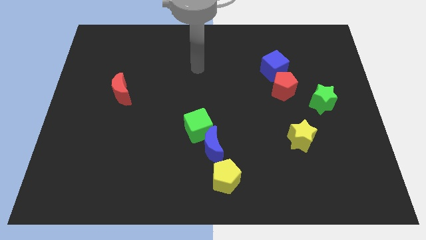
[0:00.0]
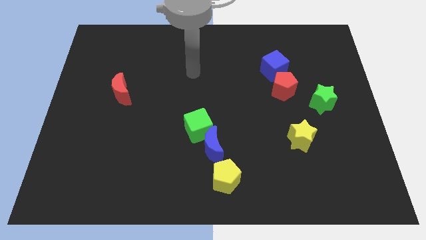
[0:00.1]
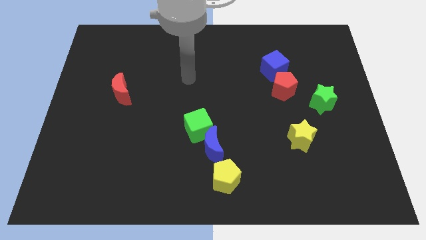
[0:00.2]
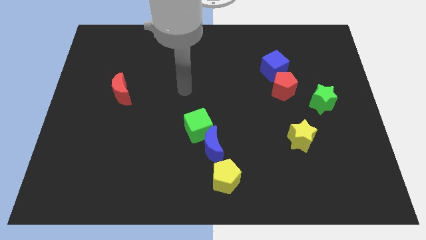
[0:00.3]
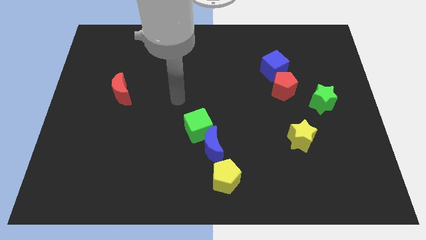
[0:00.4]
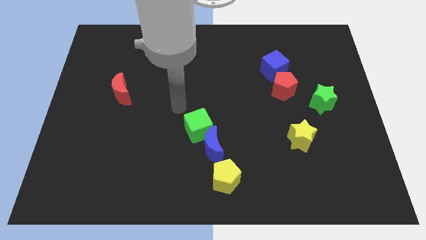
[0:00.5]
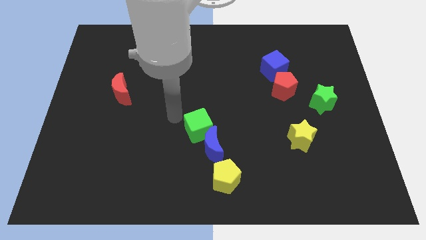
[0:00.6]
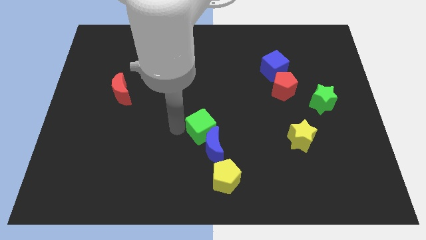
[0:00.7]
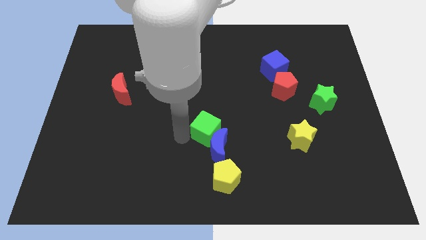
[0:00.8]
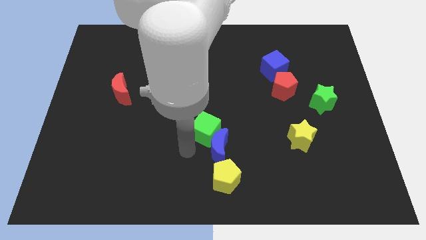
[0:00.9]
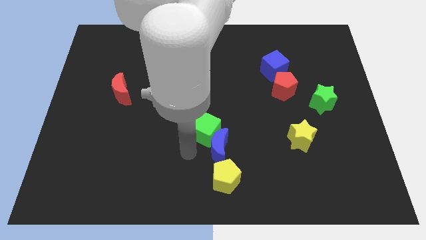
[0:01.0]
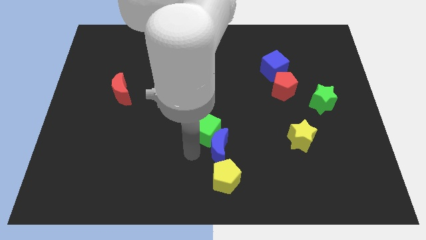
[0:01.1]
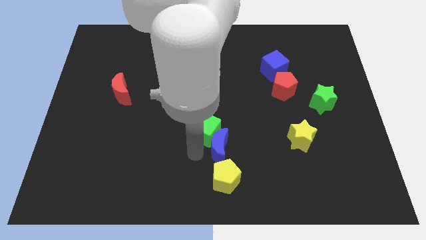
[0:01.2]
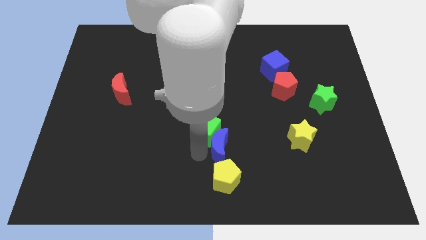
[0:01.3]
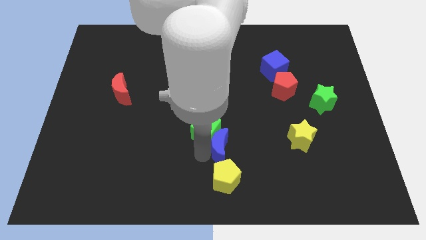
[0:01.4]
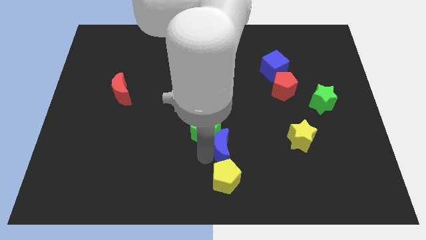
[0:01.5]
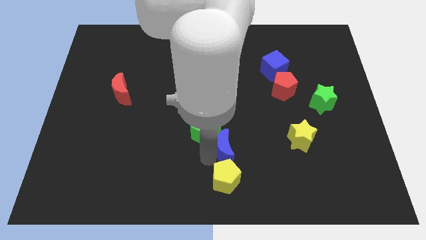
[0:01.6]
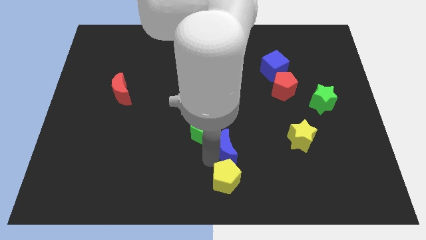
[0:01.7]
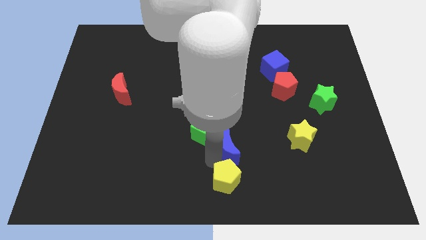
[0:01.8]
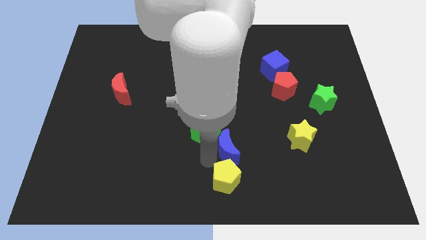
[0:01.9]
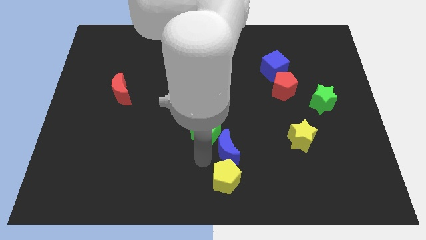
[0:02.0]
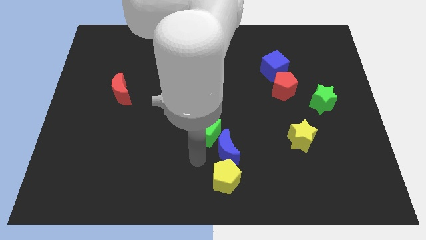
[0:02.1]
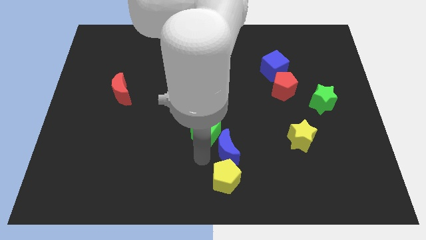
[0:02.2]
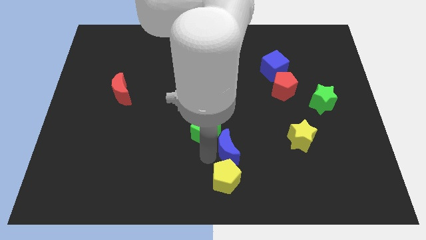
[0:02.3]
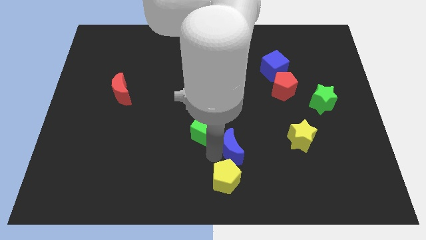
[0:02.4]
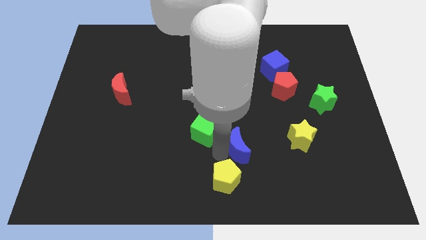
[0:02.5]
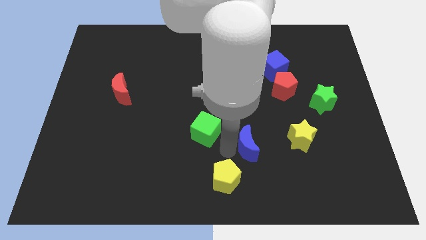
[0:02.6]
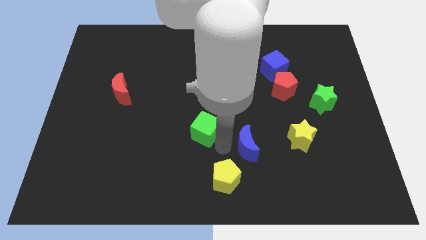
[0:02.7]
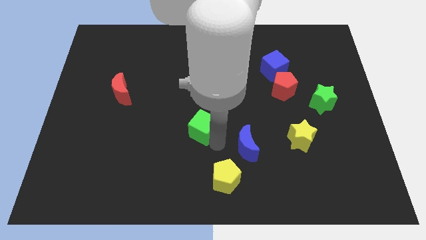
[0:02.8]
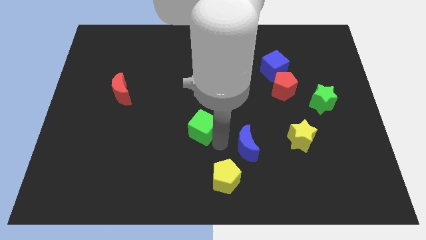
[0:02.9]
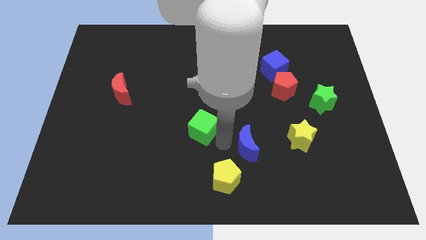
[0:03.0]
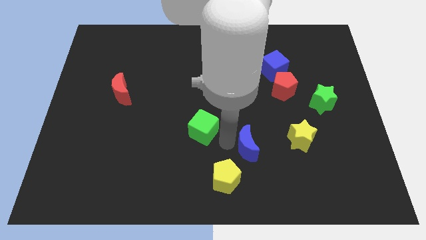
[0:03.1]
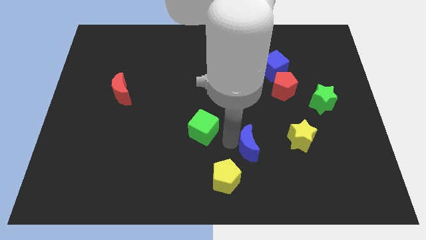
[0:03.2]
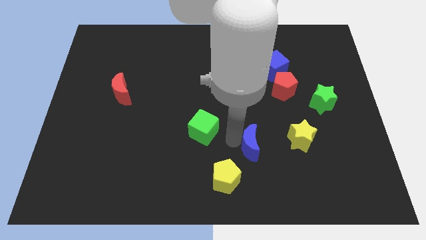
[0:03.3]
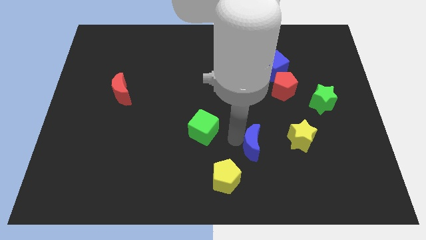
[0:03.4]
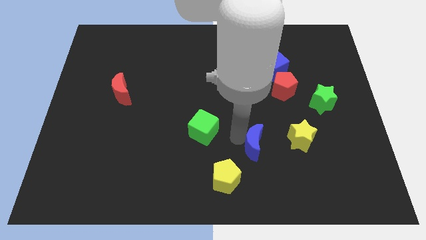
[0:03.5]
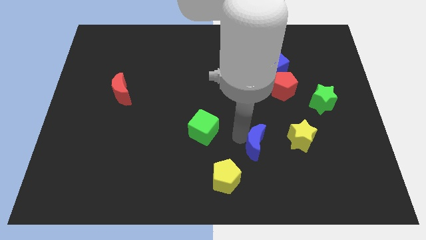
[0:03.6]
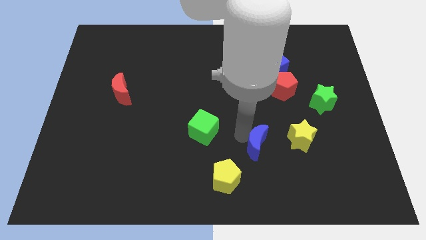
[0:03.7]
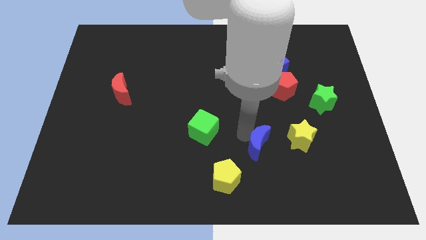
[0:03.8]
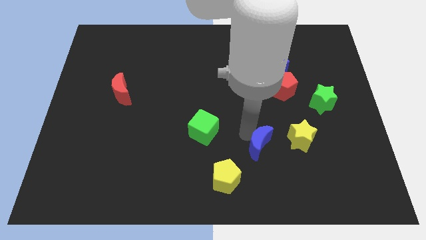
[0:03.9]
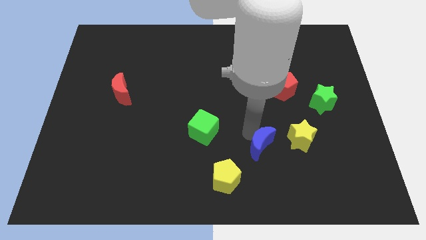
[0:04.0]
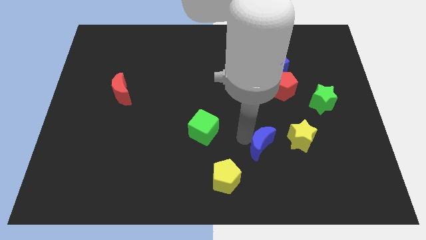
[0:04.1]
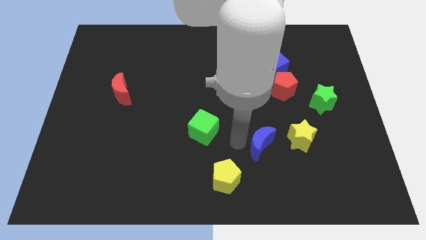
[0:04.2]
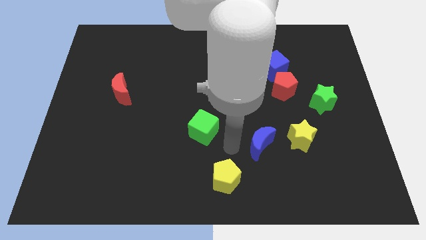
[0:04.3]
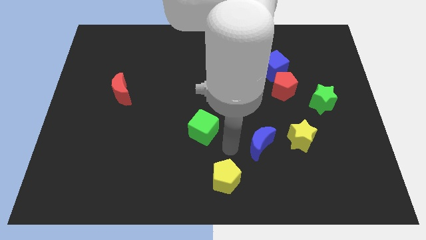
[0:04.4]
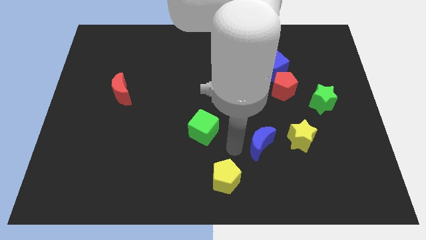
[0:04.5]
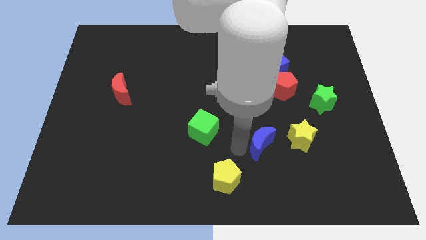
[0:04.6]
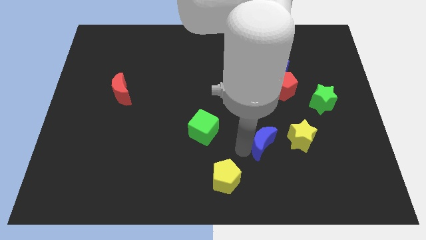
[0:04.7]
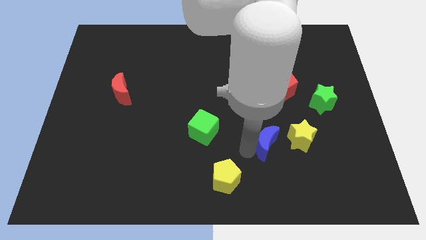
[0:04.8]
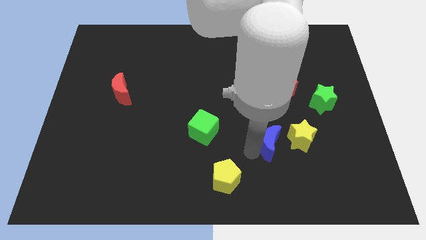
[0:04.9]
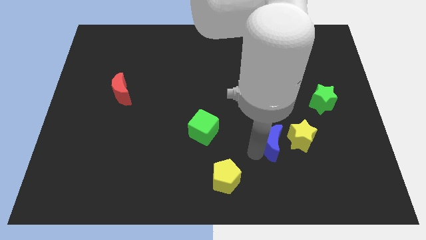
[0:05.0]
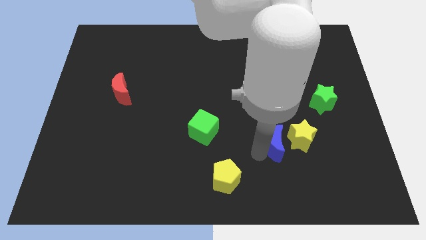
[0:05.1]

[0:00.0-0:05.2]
push the blue moon next to the yellow star

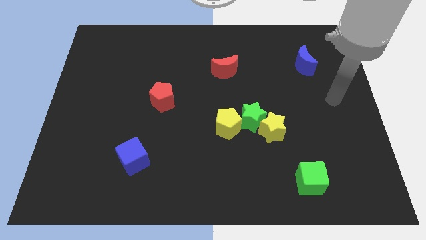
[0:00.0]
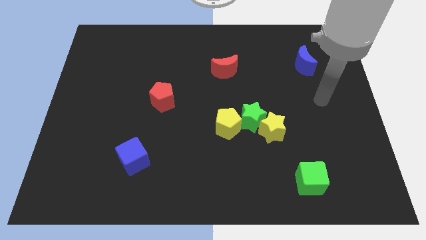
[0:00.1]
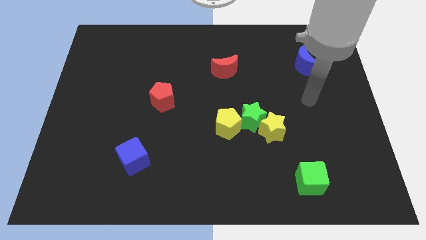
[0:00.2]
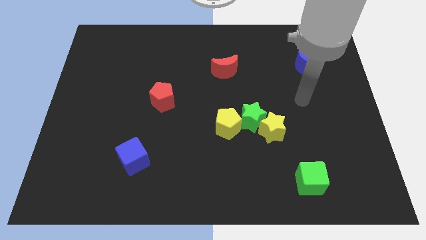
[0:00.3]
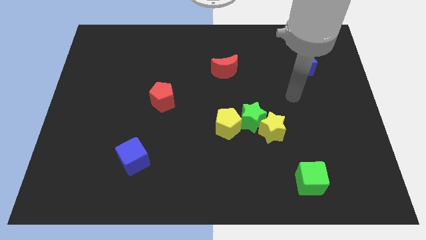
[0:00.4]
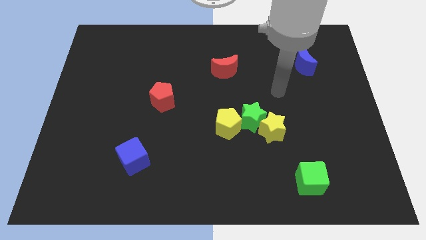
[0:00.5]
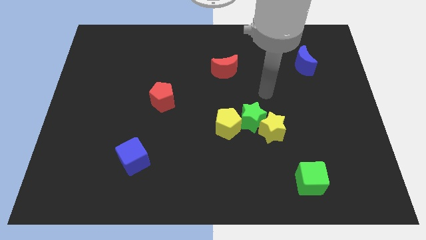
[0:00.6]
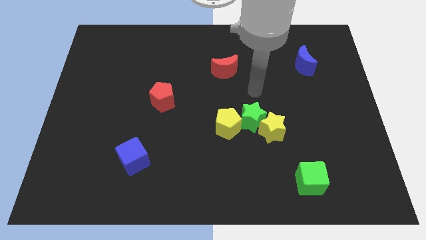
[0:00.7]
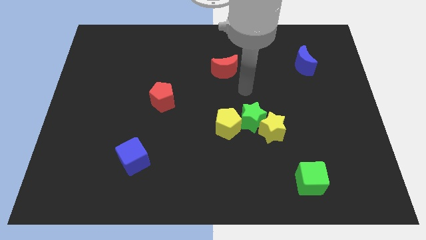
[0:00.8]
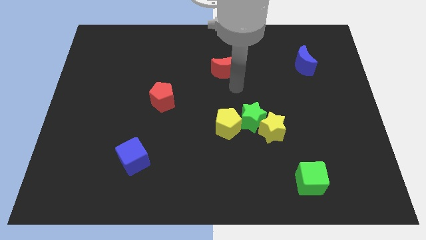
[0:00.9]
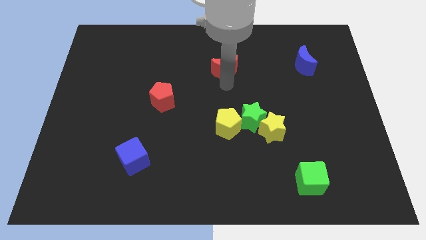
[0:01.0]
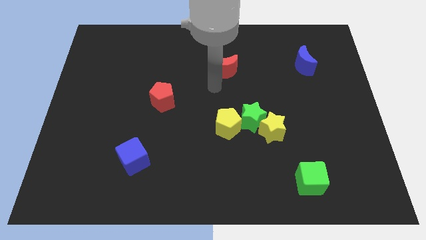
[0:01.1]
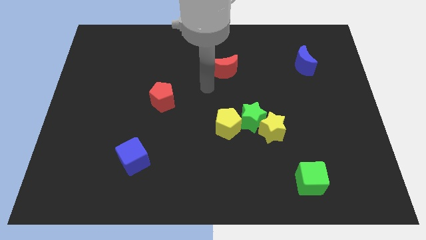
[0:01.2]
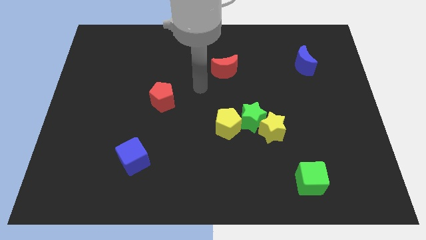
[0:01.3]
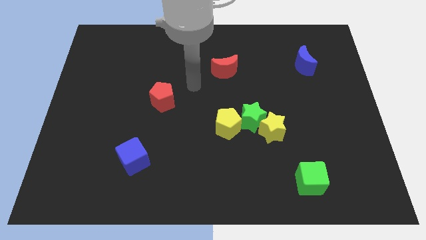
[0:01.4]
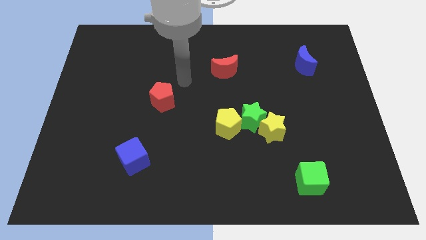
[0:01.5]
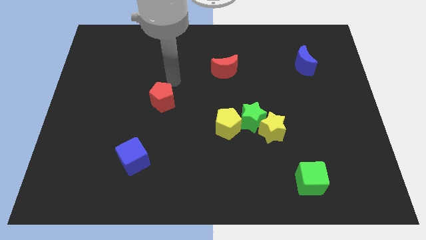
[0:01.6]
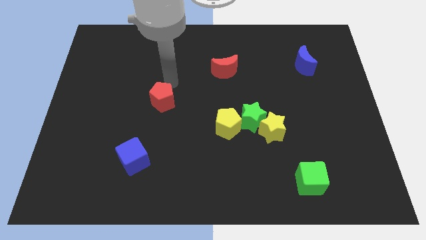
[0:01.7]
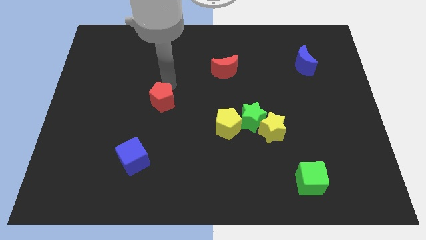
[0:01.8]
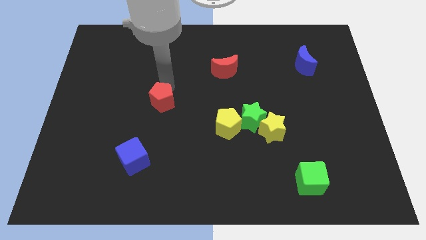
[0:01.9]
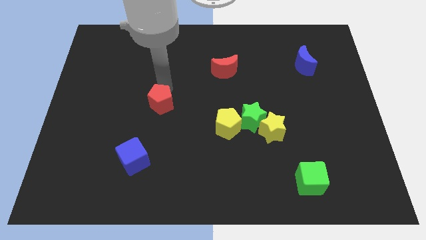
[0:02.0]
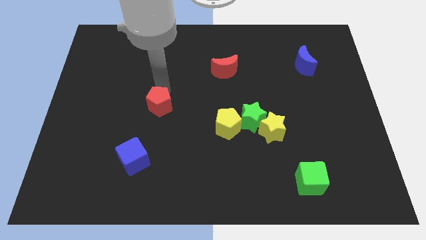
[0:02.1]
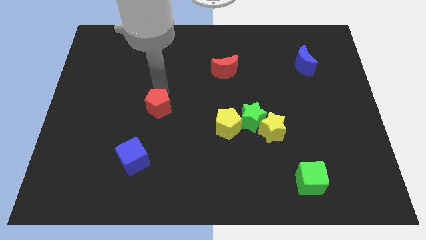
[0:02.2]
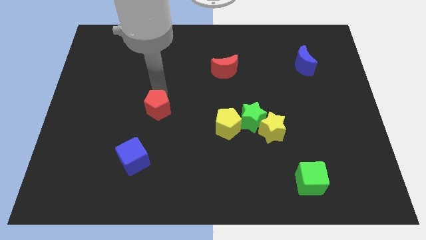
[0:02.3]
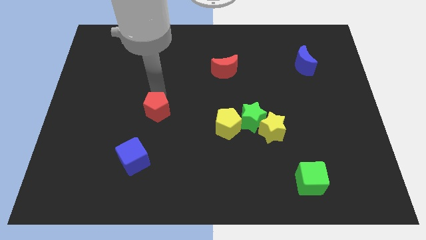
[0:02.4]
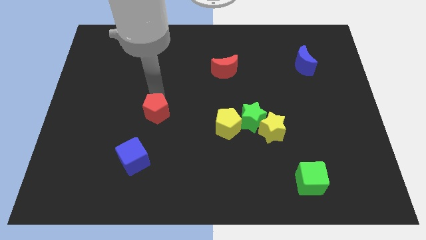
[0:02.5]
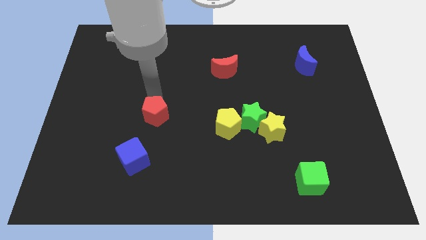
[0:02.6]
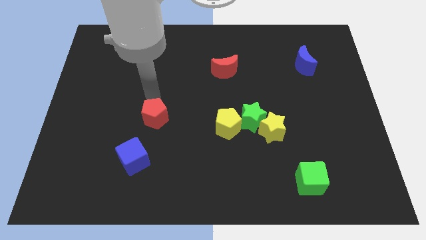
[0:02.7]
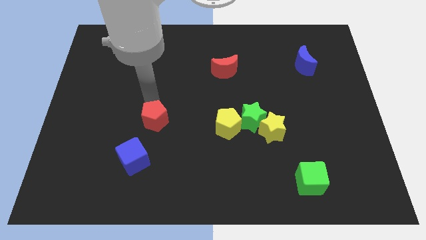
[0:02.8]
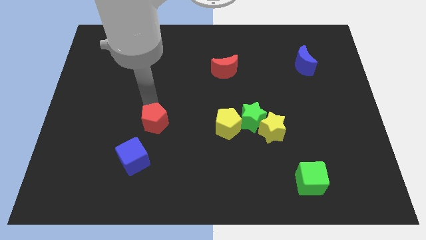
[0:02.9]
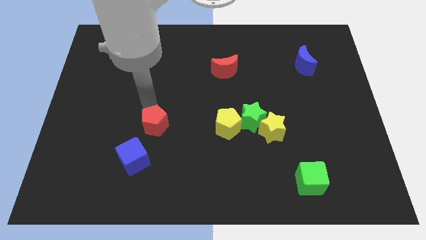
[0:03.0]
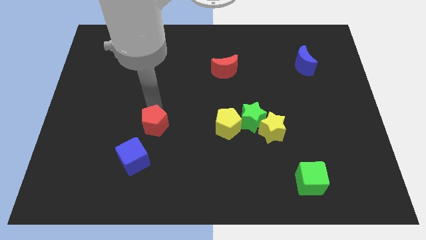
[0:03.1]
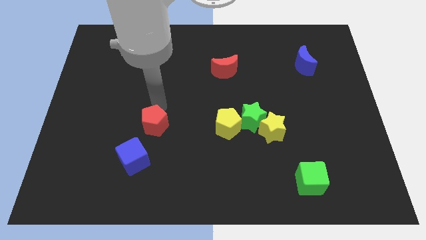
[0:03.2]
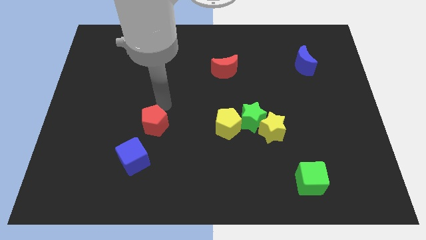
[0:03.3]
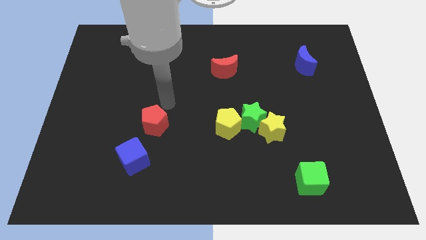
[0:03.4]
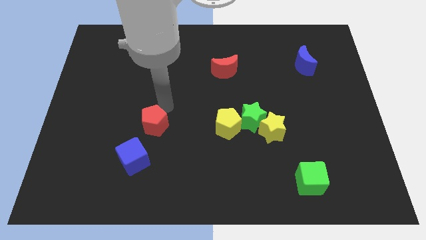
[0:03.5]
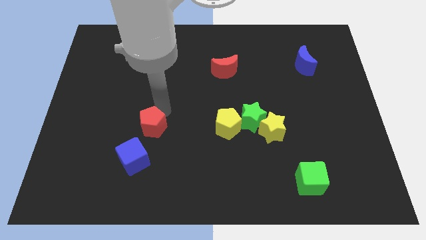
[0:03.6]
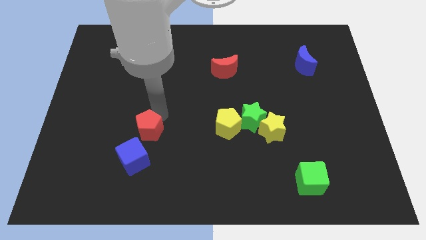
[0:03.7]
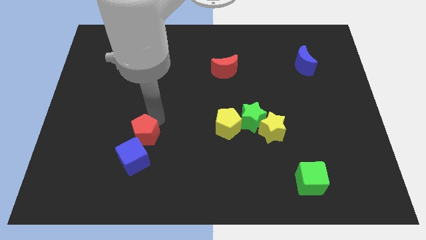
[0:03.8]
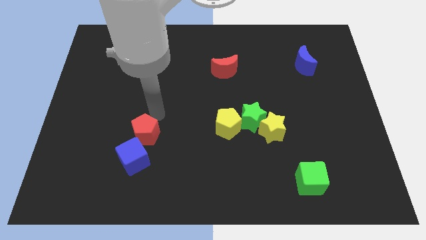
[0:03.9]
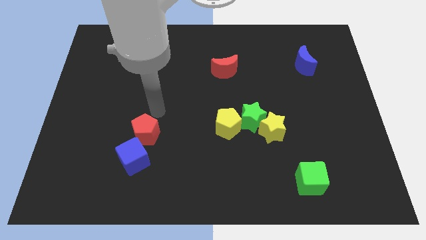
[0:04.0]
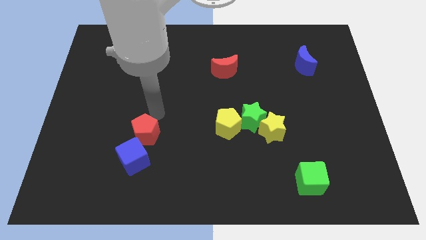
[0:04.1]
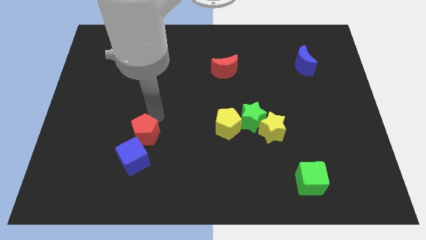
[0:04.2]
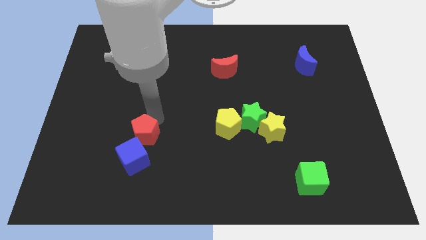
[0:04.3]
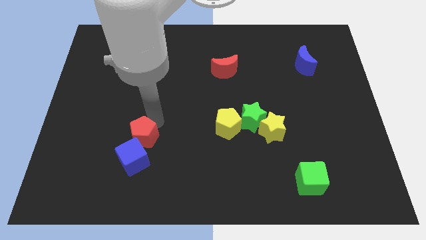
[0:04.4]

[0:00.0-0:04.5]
move the red pentagon to the blue cube
